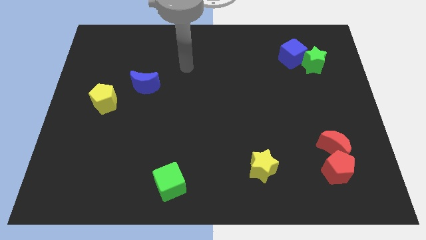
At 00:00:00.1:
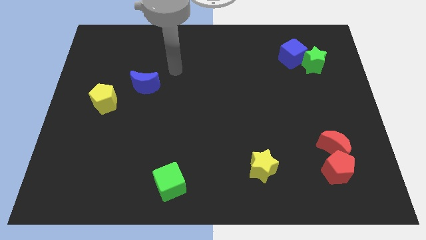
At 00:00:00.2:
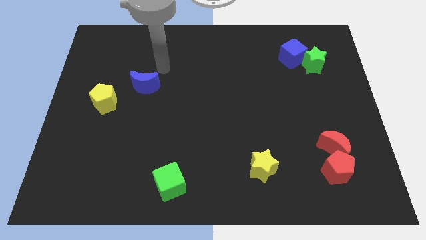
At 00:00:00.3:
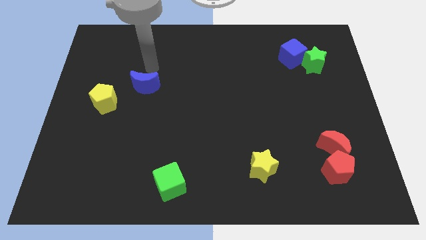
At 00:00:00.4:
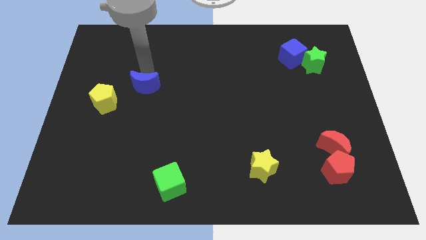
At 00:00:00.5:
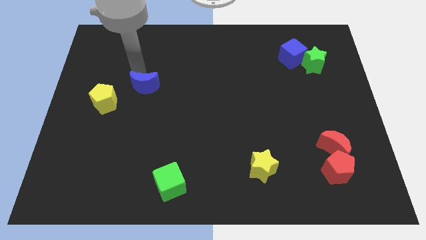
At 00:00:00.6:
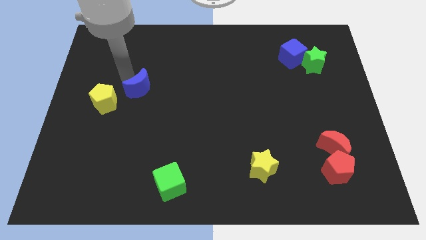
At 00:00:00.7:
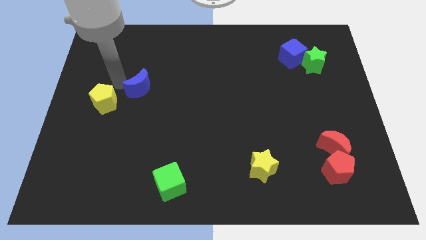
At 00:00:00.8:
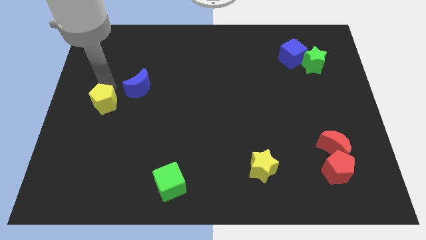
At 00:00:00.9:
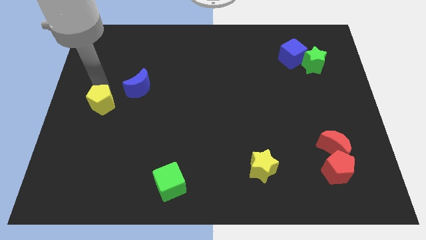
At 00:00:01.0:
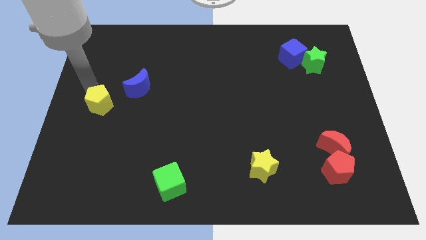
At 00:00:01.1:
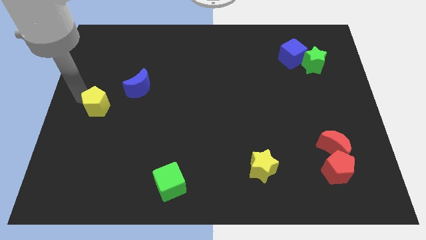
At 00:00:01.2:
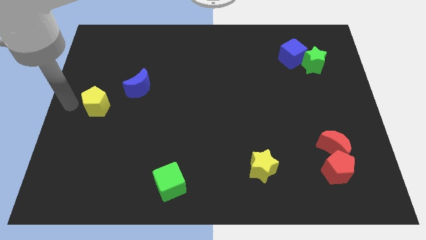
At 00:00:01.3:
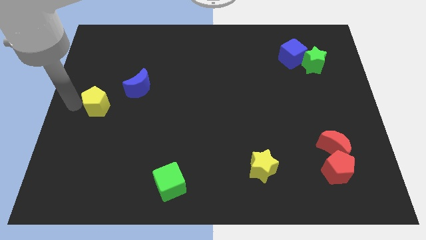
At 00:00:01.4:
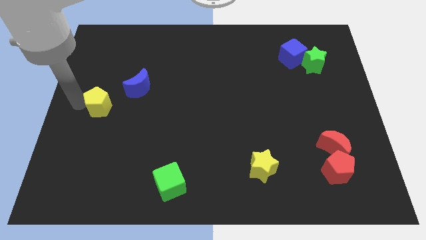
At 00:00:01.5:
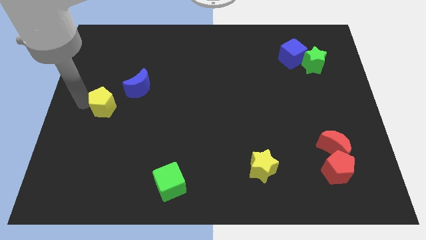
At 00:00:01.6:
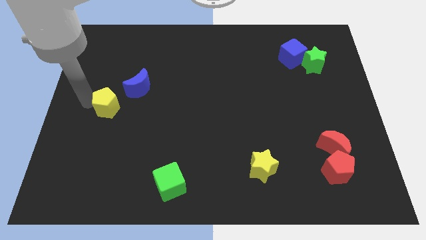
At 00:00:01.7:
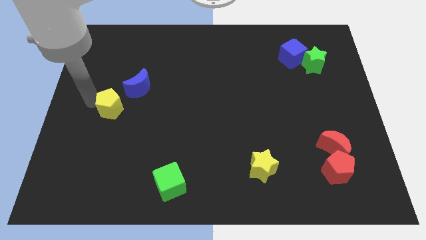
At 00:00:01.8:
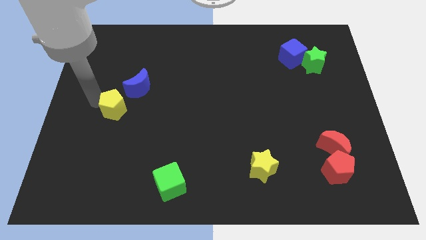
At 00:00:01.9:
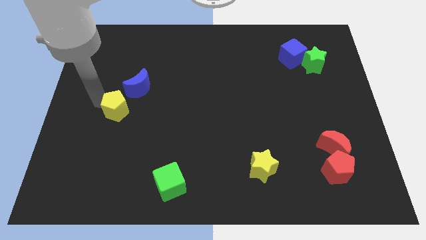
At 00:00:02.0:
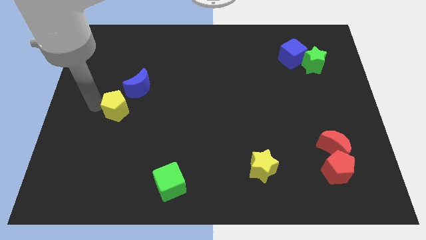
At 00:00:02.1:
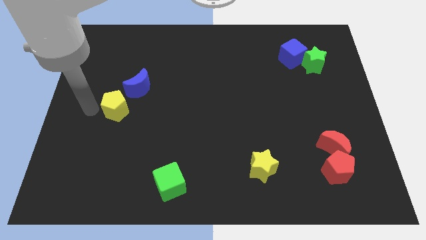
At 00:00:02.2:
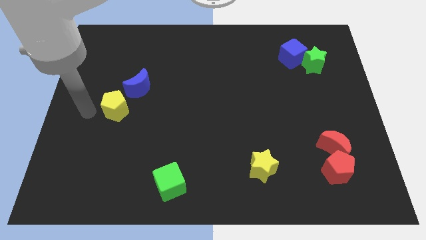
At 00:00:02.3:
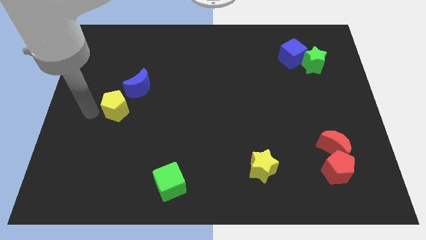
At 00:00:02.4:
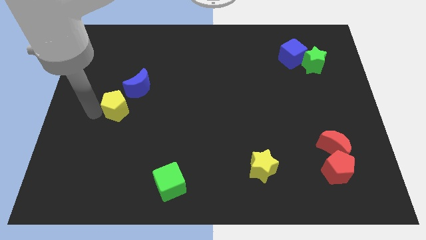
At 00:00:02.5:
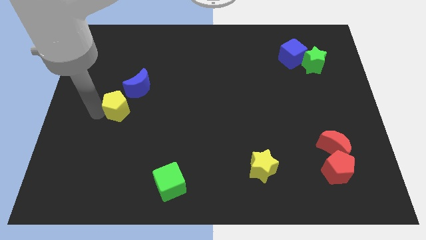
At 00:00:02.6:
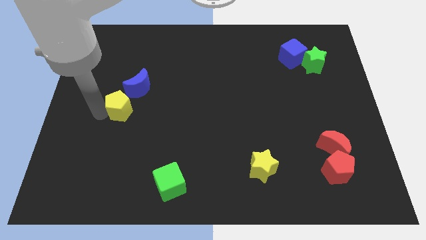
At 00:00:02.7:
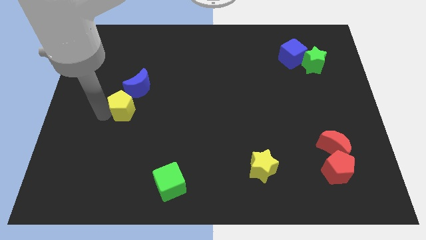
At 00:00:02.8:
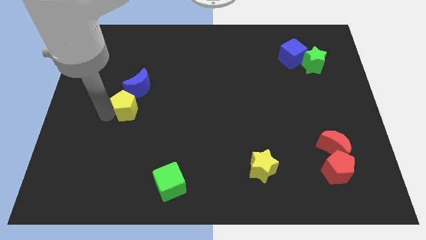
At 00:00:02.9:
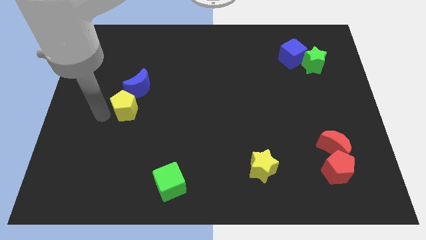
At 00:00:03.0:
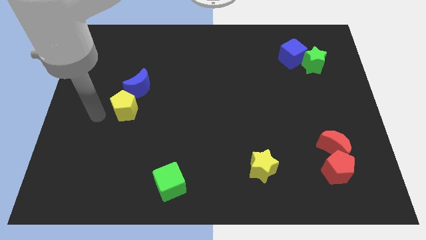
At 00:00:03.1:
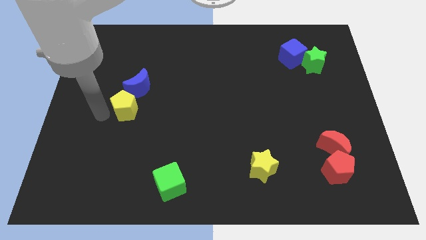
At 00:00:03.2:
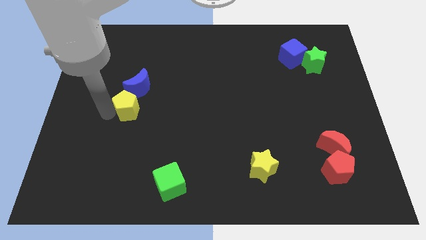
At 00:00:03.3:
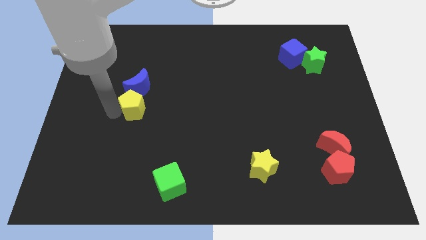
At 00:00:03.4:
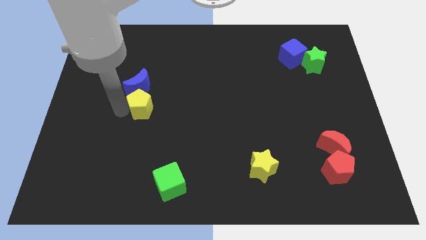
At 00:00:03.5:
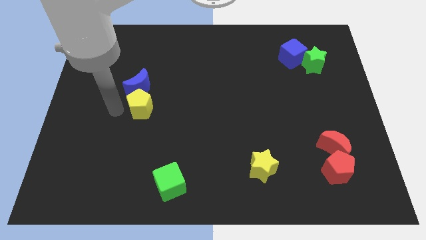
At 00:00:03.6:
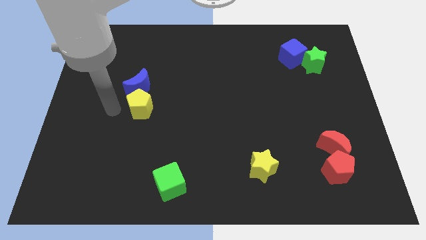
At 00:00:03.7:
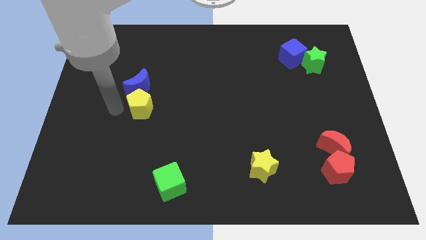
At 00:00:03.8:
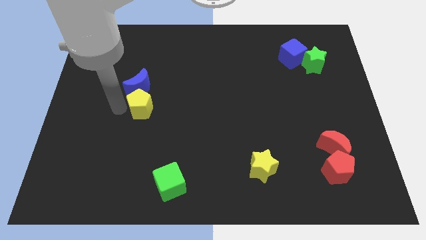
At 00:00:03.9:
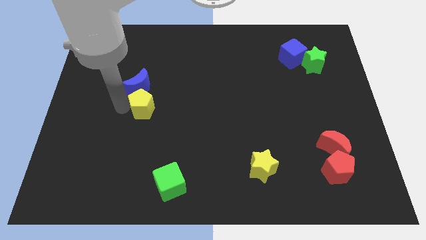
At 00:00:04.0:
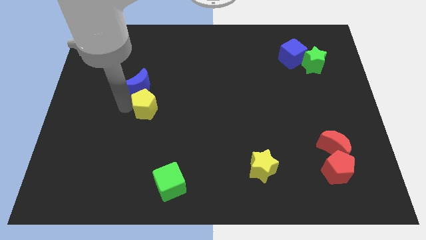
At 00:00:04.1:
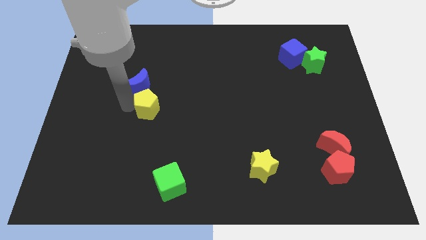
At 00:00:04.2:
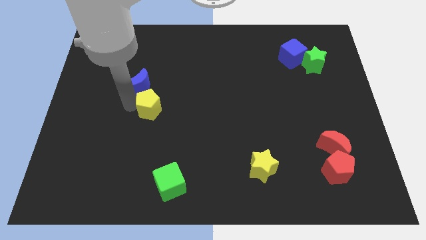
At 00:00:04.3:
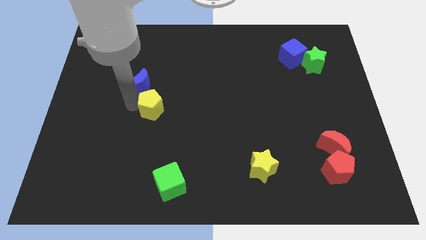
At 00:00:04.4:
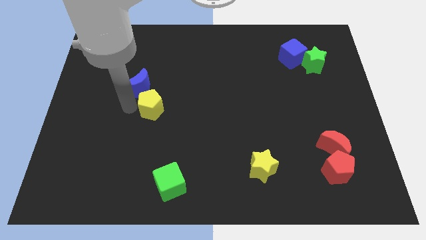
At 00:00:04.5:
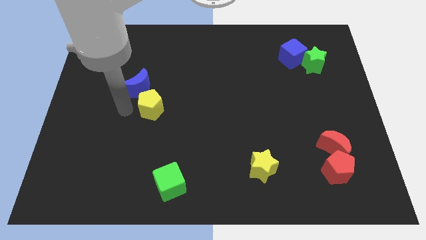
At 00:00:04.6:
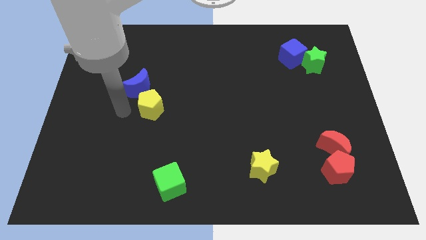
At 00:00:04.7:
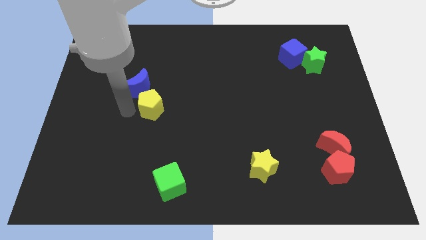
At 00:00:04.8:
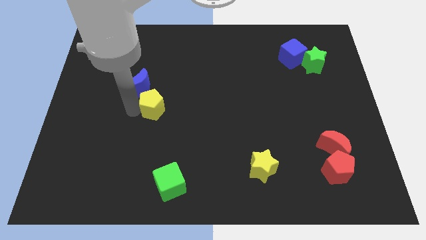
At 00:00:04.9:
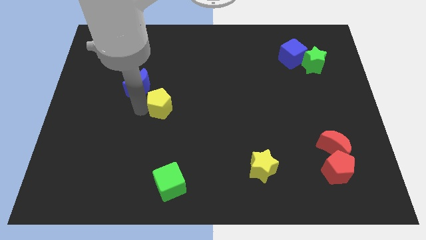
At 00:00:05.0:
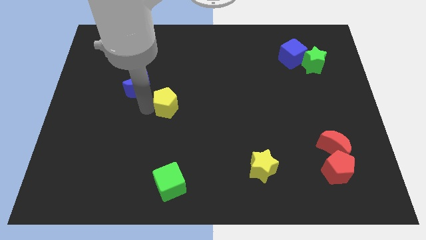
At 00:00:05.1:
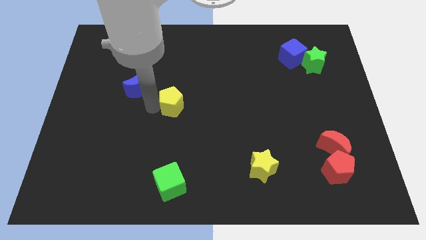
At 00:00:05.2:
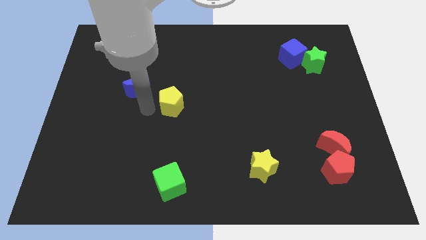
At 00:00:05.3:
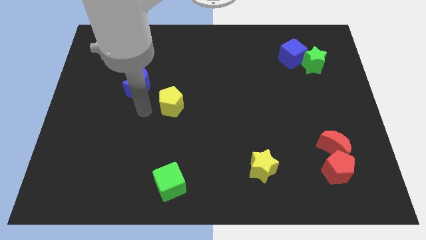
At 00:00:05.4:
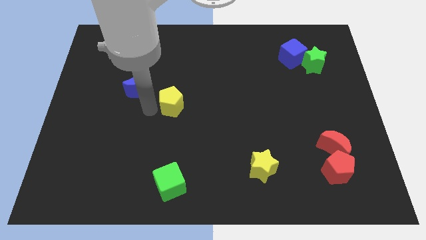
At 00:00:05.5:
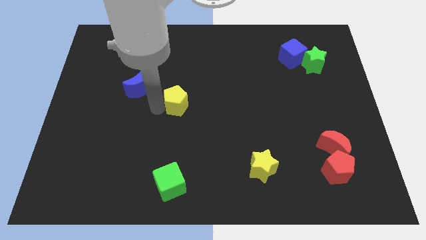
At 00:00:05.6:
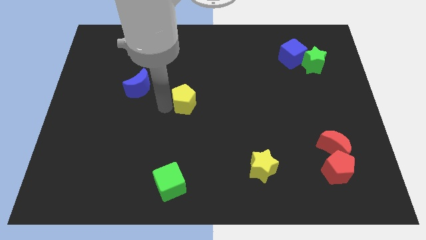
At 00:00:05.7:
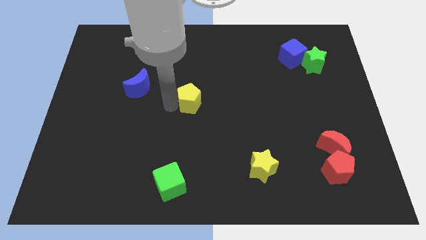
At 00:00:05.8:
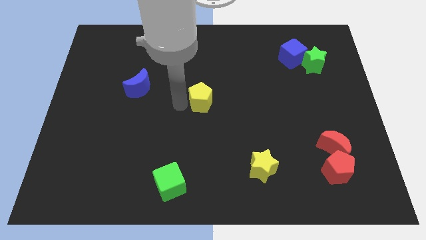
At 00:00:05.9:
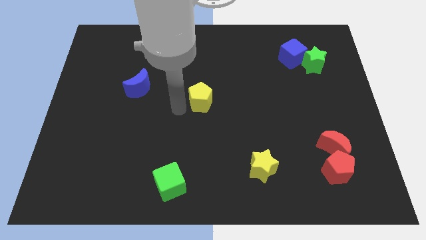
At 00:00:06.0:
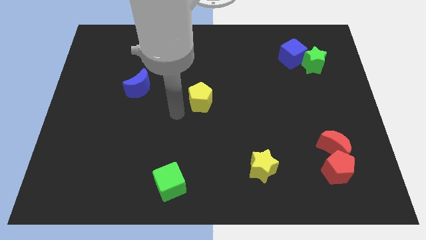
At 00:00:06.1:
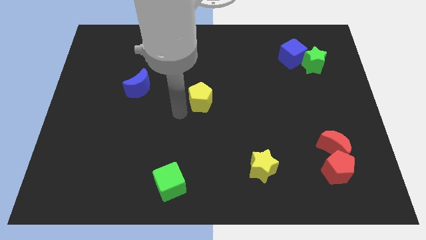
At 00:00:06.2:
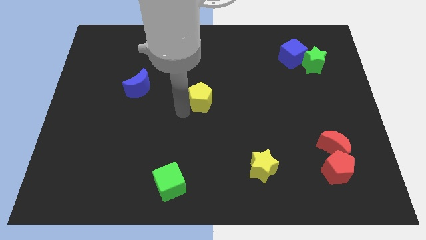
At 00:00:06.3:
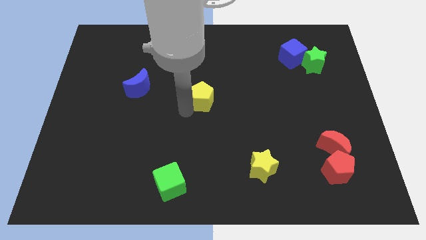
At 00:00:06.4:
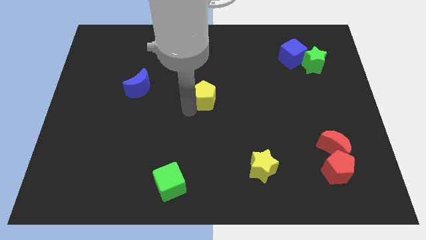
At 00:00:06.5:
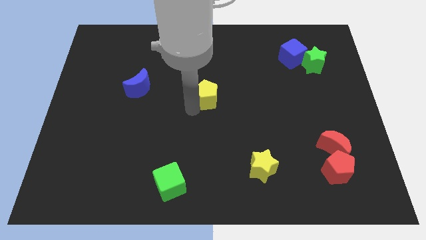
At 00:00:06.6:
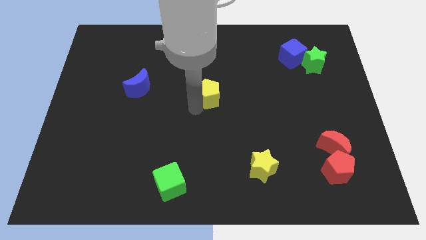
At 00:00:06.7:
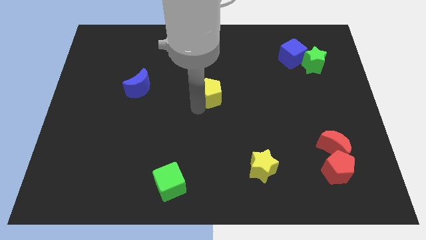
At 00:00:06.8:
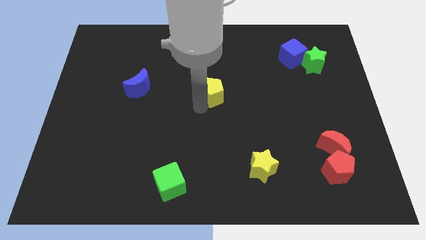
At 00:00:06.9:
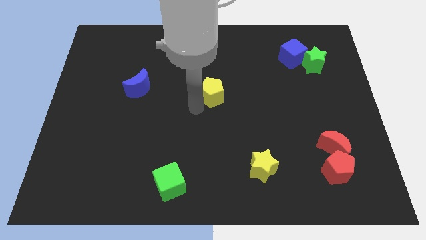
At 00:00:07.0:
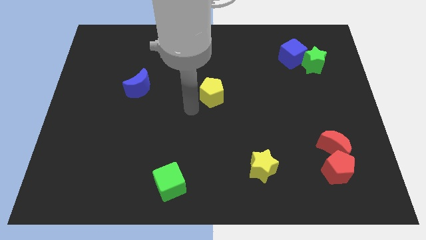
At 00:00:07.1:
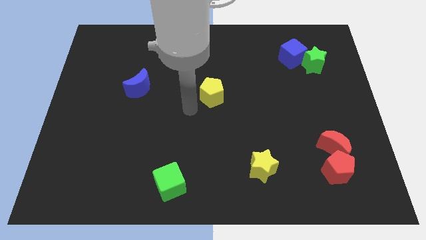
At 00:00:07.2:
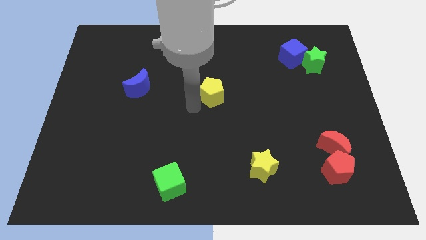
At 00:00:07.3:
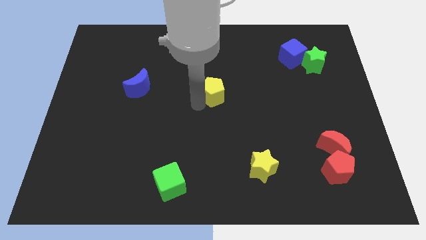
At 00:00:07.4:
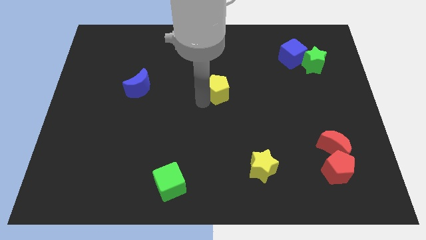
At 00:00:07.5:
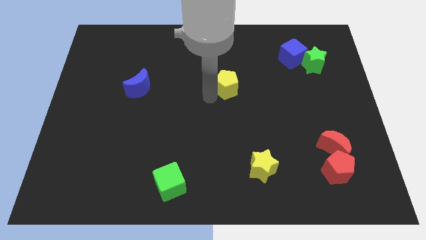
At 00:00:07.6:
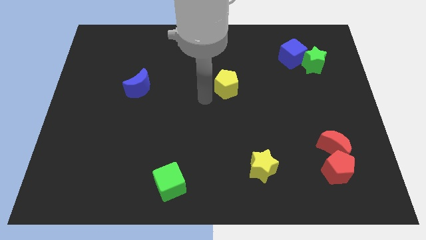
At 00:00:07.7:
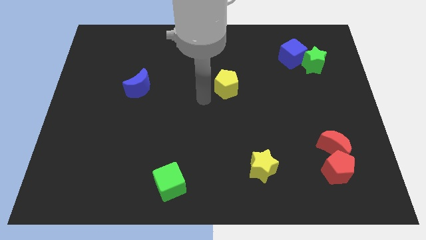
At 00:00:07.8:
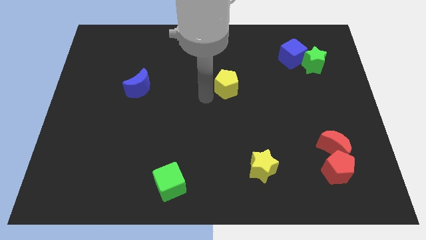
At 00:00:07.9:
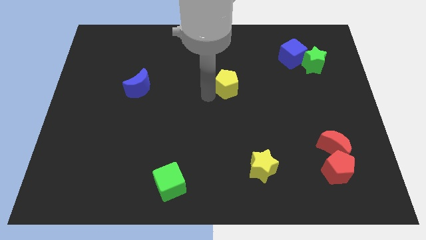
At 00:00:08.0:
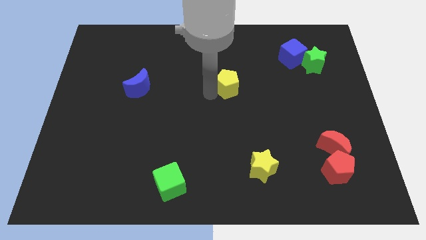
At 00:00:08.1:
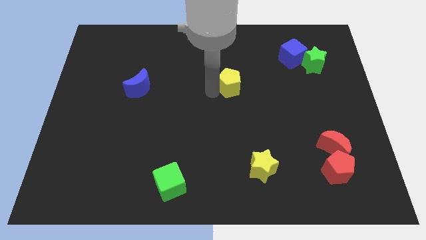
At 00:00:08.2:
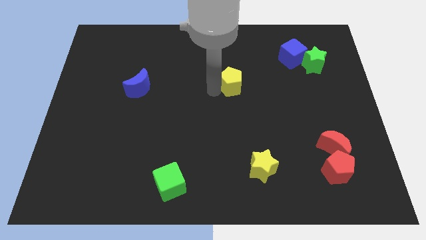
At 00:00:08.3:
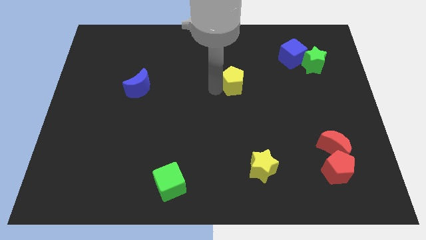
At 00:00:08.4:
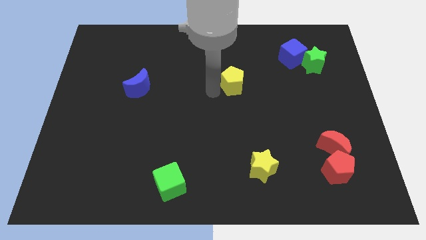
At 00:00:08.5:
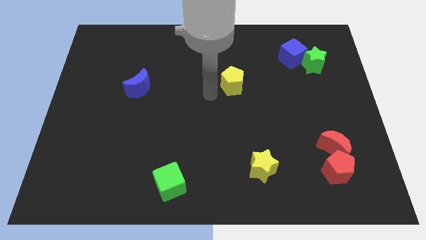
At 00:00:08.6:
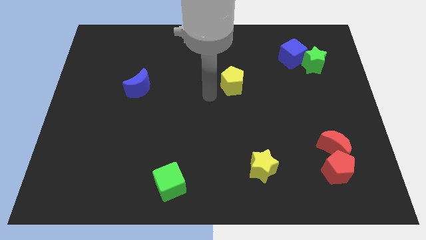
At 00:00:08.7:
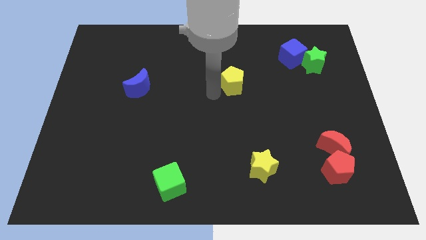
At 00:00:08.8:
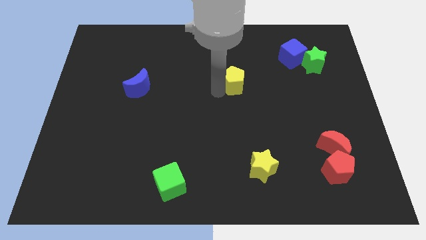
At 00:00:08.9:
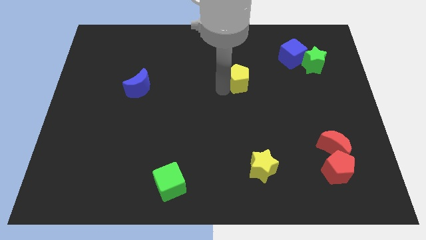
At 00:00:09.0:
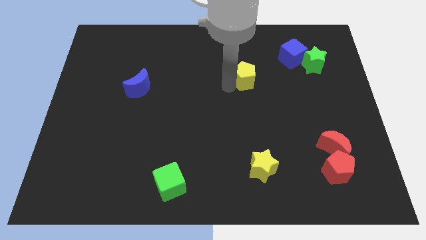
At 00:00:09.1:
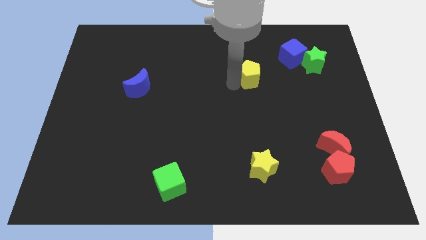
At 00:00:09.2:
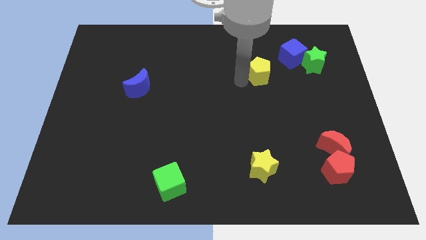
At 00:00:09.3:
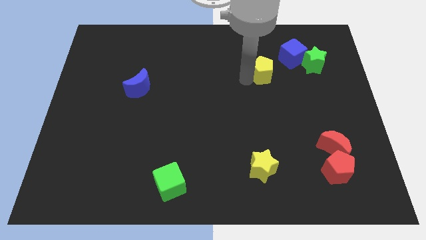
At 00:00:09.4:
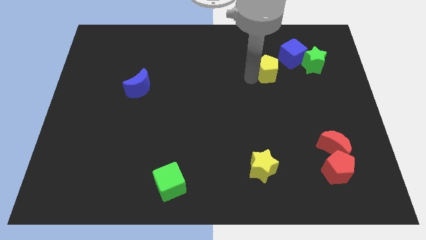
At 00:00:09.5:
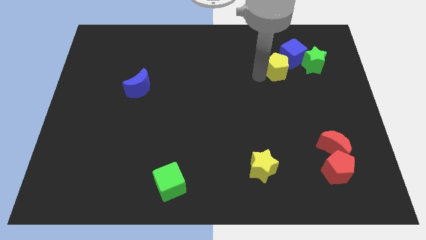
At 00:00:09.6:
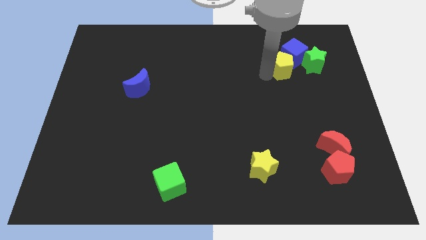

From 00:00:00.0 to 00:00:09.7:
push the yellow pentagon towards the blue cube
